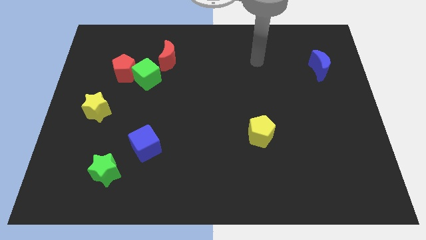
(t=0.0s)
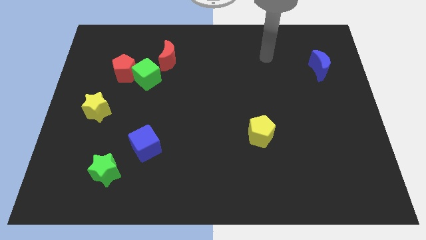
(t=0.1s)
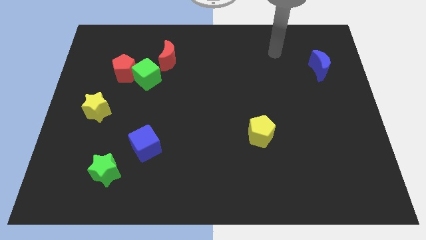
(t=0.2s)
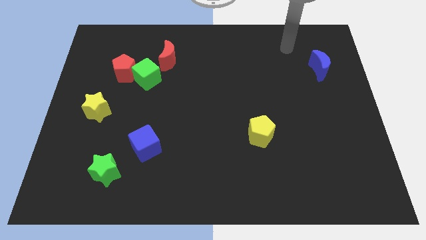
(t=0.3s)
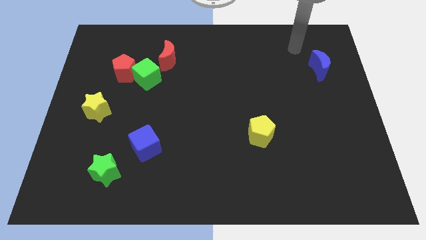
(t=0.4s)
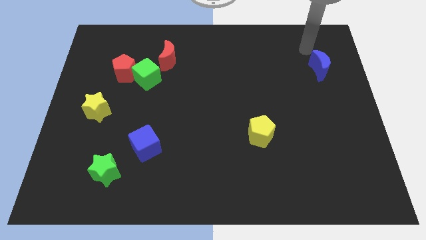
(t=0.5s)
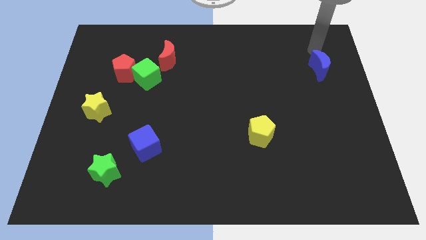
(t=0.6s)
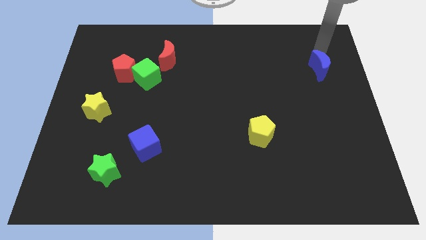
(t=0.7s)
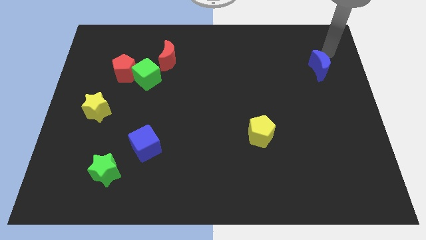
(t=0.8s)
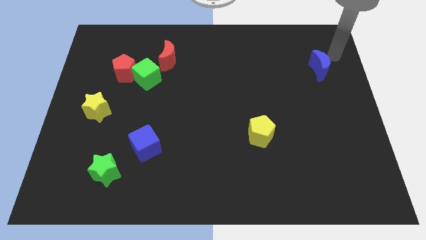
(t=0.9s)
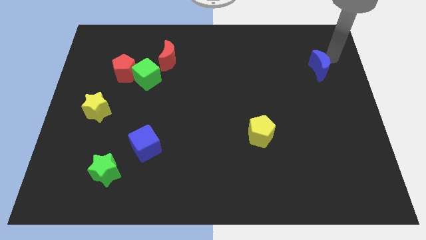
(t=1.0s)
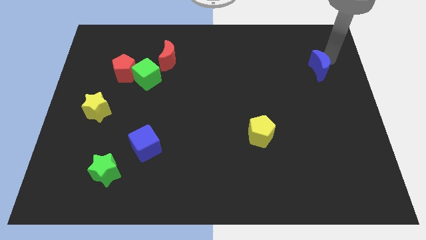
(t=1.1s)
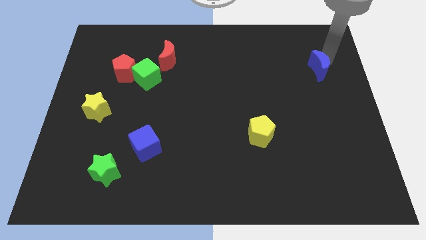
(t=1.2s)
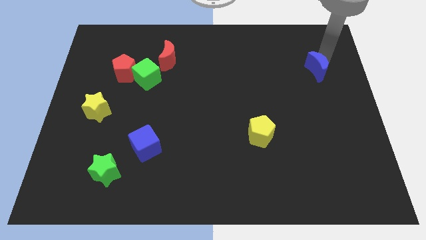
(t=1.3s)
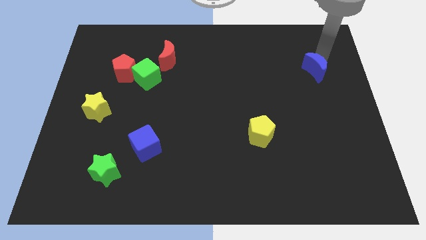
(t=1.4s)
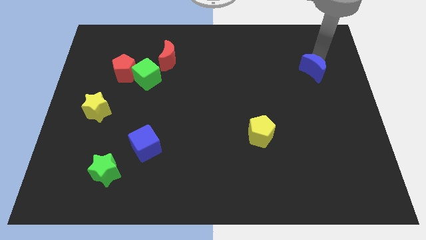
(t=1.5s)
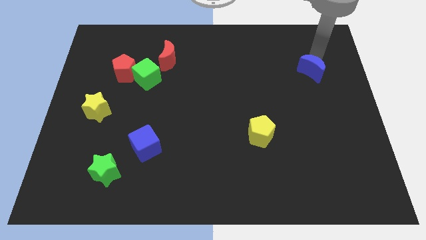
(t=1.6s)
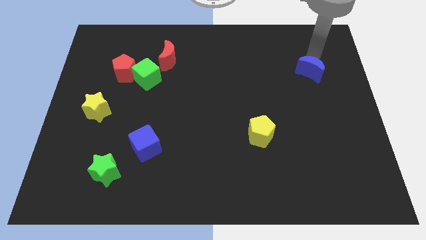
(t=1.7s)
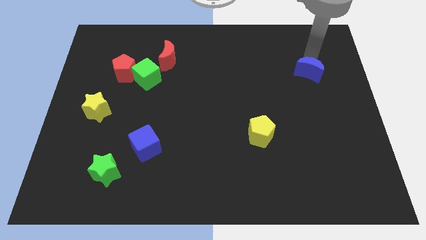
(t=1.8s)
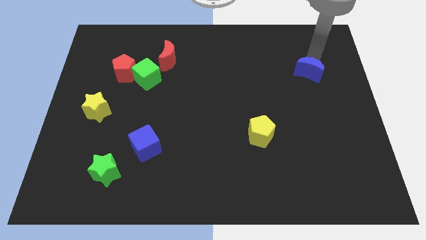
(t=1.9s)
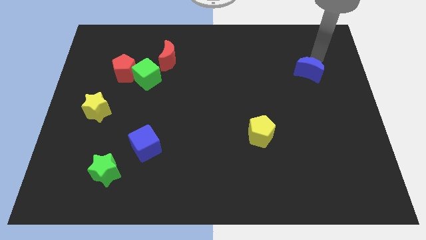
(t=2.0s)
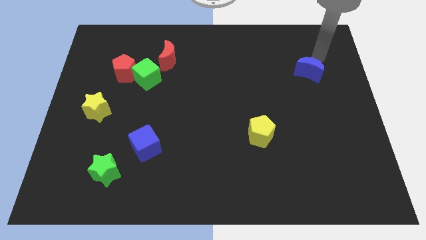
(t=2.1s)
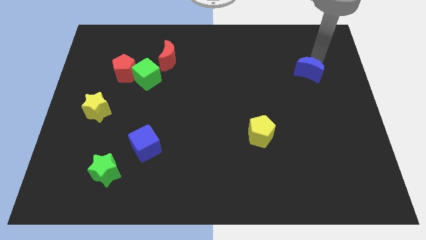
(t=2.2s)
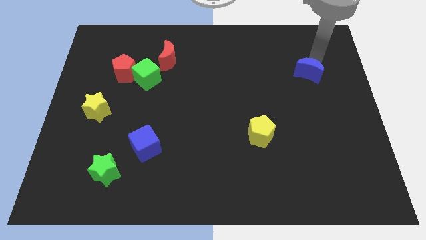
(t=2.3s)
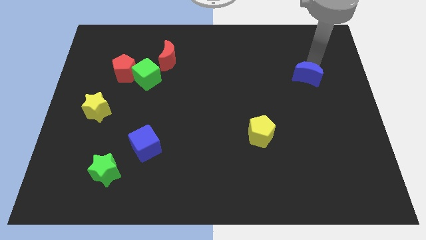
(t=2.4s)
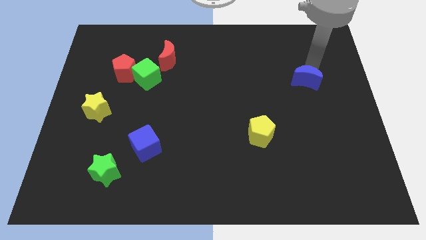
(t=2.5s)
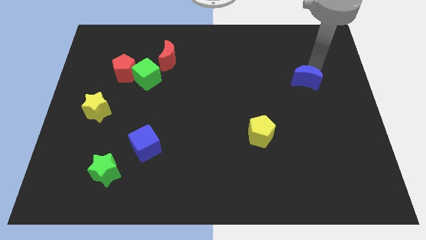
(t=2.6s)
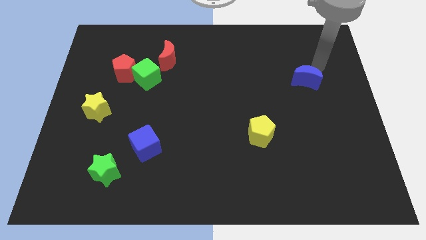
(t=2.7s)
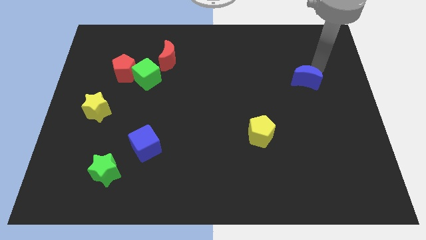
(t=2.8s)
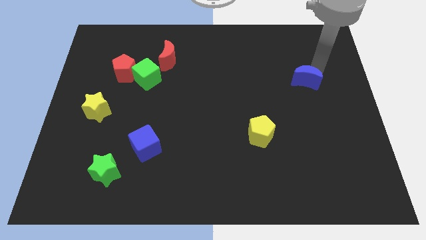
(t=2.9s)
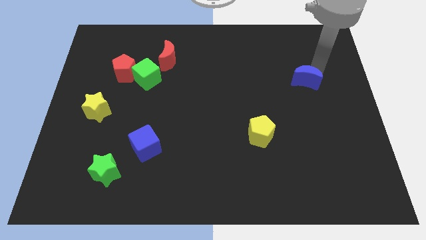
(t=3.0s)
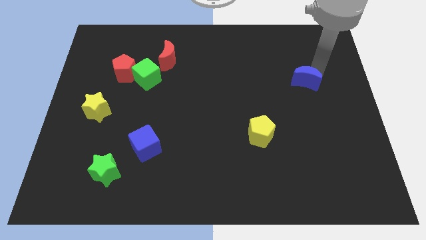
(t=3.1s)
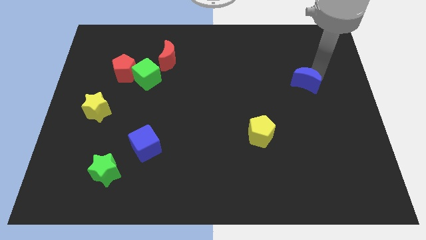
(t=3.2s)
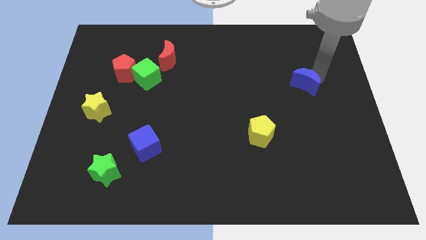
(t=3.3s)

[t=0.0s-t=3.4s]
slightly slide the blue moon down and to the left

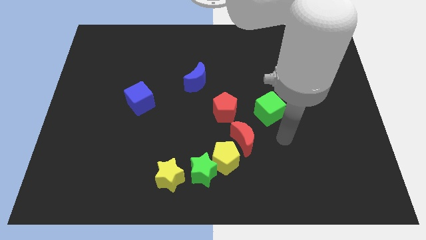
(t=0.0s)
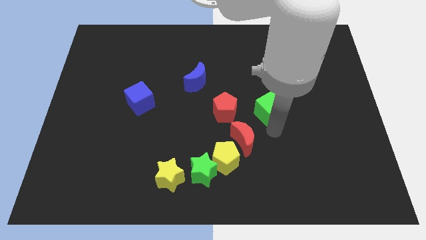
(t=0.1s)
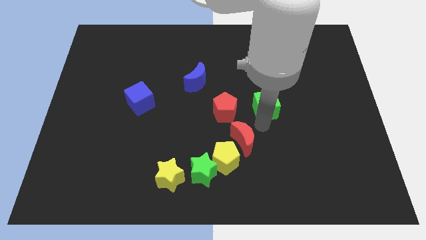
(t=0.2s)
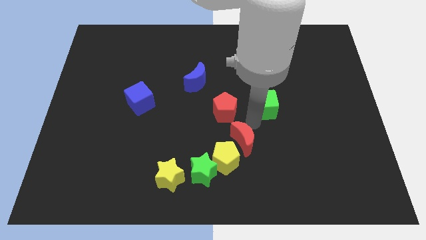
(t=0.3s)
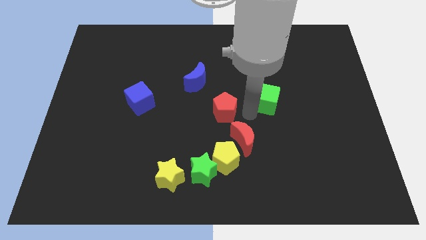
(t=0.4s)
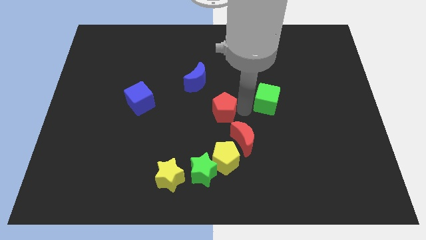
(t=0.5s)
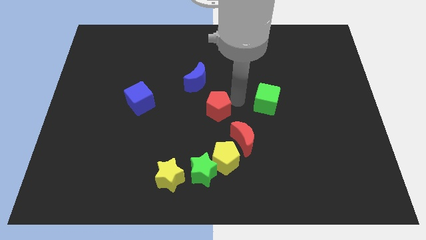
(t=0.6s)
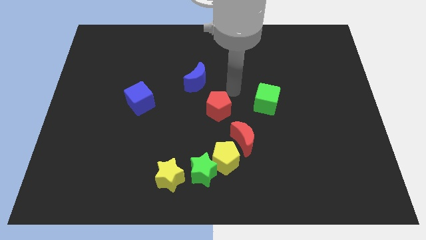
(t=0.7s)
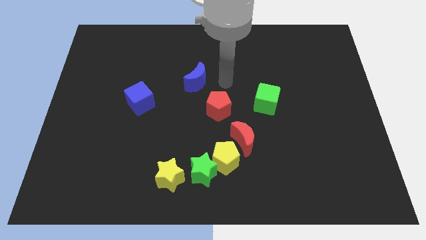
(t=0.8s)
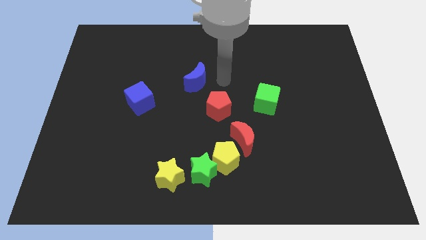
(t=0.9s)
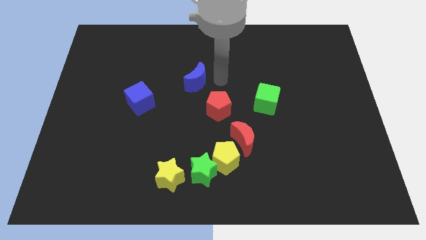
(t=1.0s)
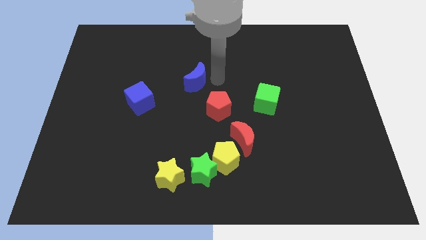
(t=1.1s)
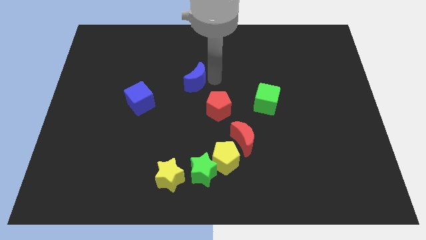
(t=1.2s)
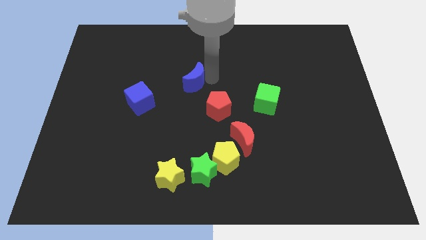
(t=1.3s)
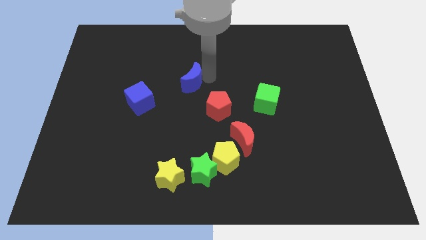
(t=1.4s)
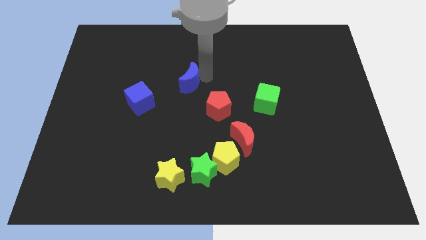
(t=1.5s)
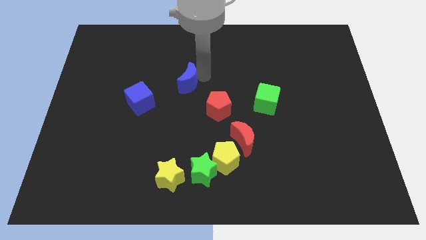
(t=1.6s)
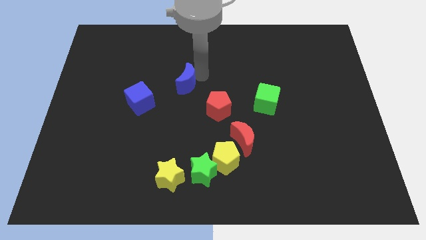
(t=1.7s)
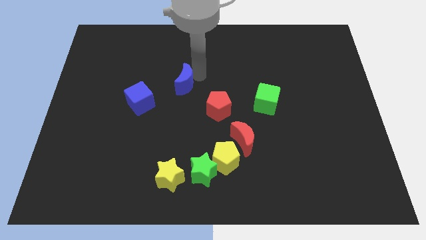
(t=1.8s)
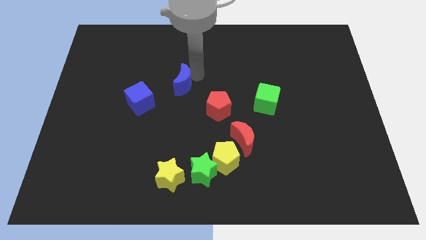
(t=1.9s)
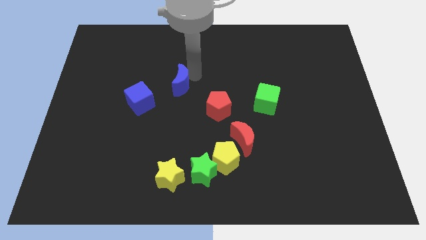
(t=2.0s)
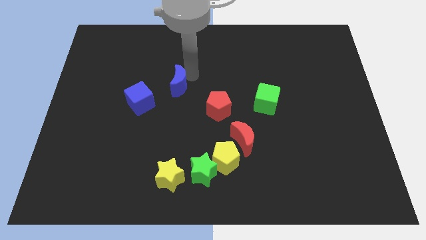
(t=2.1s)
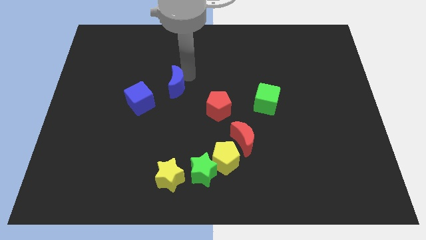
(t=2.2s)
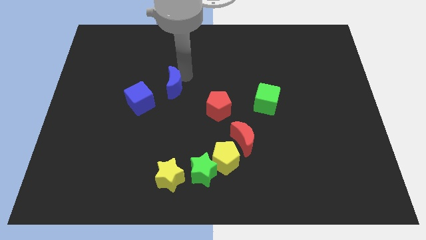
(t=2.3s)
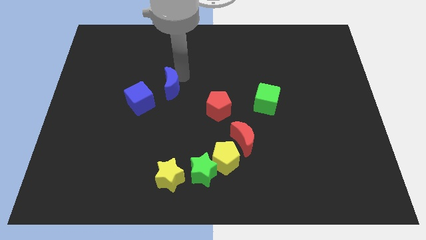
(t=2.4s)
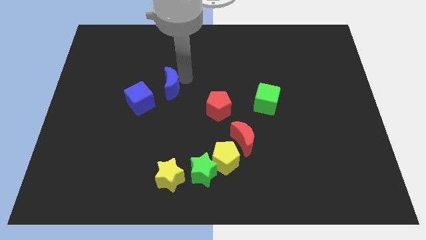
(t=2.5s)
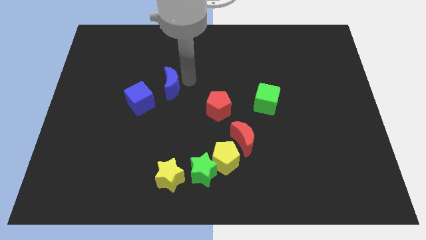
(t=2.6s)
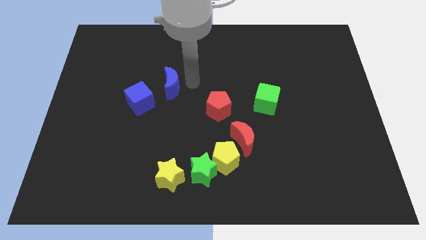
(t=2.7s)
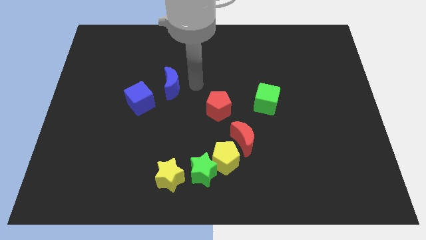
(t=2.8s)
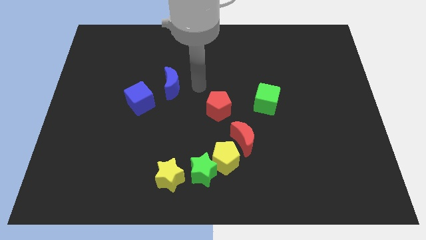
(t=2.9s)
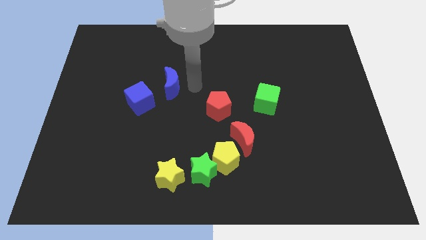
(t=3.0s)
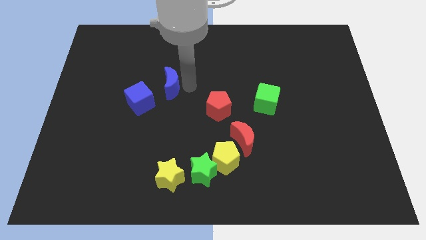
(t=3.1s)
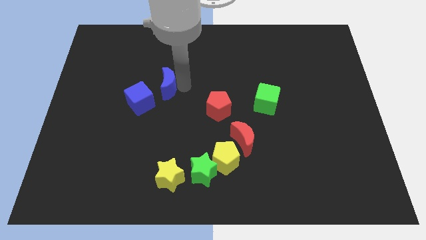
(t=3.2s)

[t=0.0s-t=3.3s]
push the blue moon slightly to the left

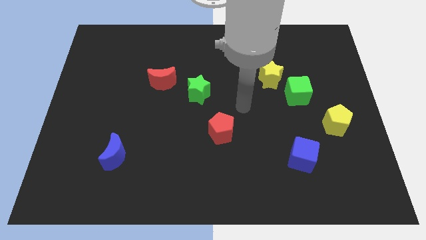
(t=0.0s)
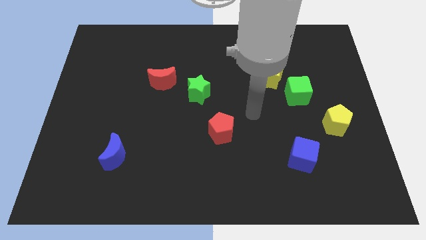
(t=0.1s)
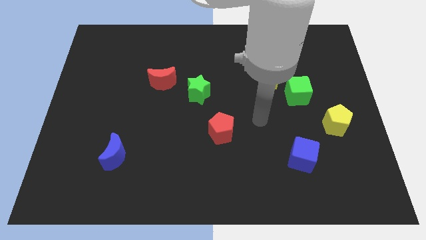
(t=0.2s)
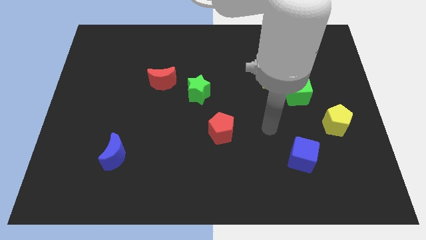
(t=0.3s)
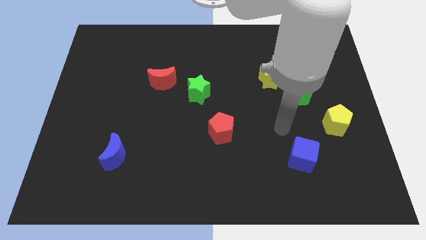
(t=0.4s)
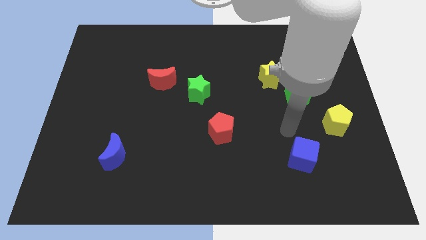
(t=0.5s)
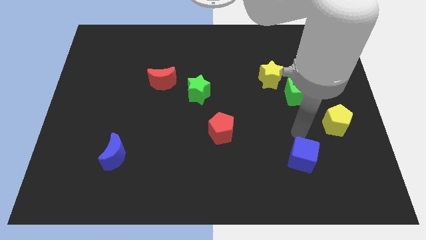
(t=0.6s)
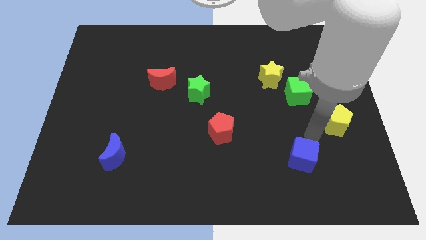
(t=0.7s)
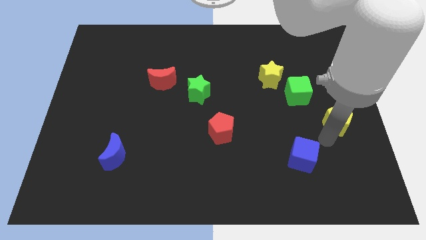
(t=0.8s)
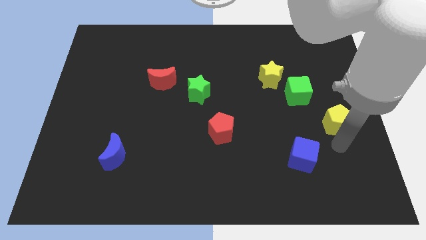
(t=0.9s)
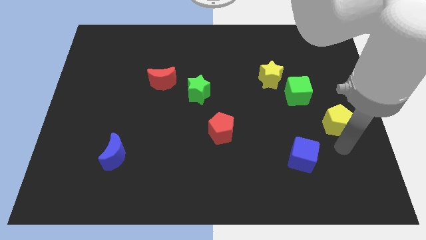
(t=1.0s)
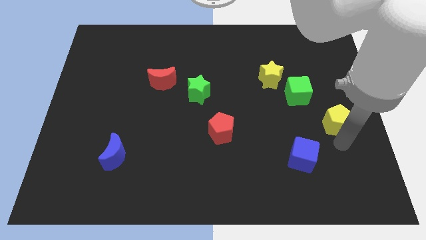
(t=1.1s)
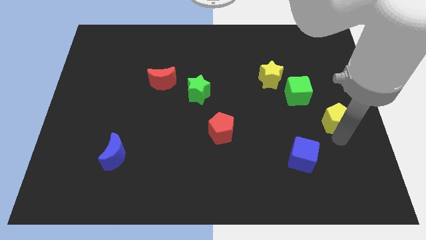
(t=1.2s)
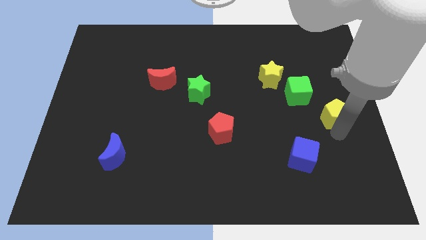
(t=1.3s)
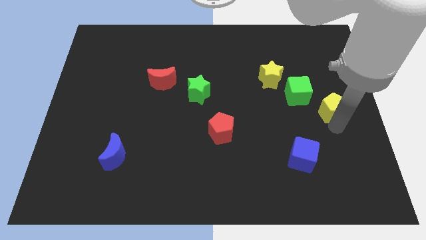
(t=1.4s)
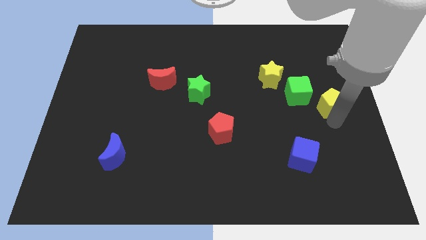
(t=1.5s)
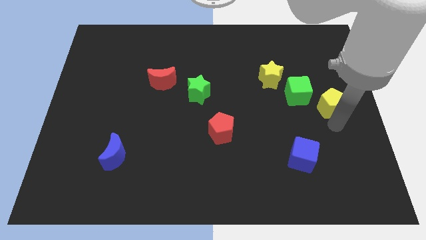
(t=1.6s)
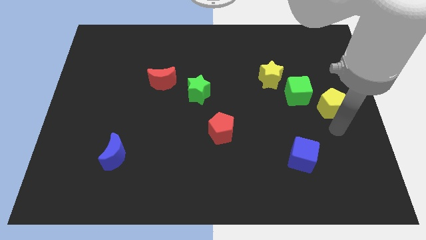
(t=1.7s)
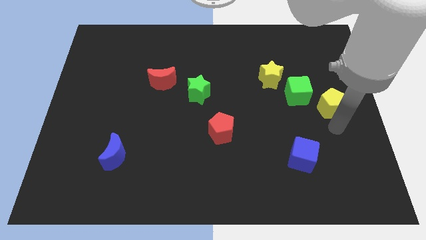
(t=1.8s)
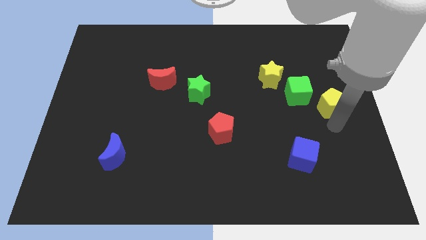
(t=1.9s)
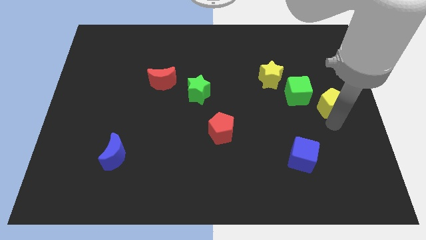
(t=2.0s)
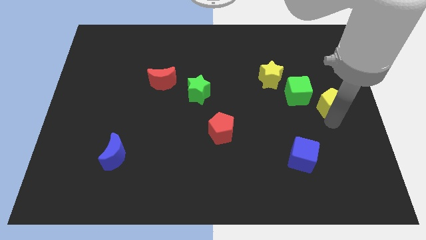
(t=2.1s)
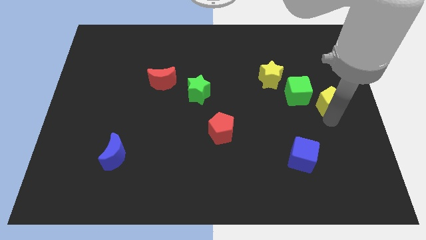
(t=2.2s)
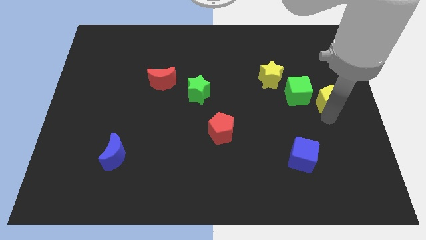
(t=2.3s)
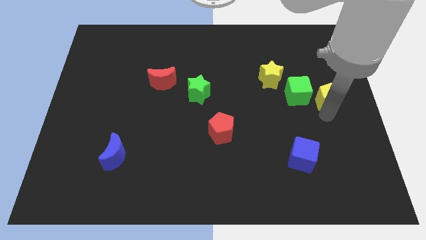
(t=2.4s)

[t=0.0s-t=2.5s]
push the yellow pentagon up somewhat
